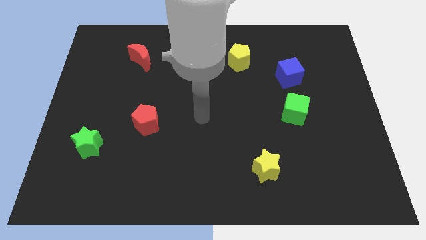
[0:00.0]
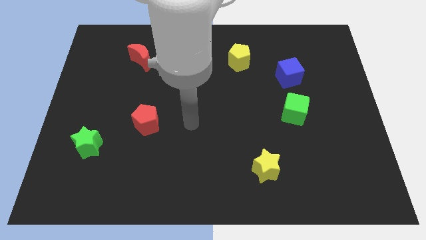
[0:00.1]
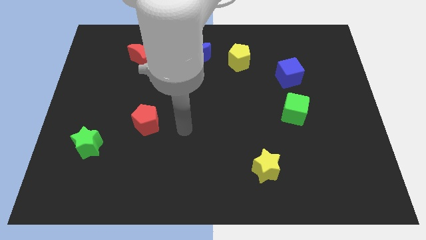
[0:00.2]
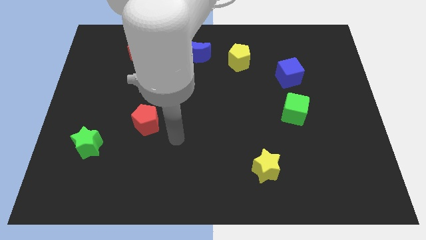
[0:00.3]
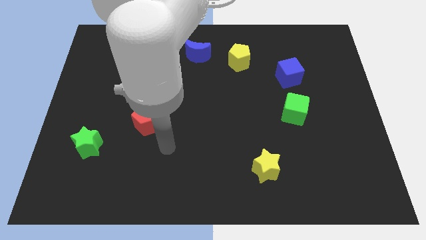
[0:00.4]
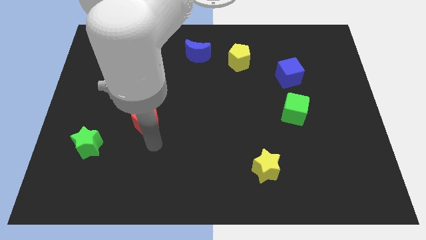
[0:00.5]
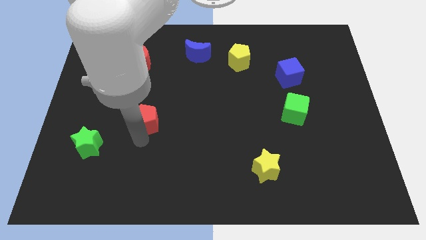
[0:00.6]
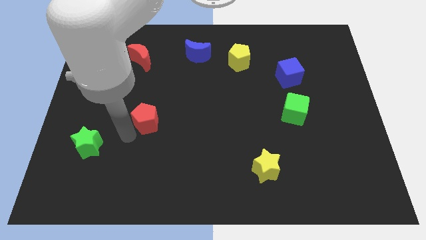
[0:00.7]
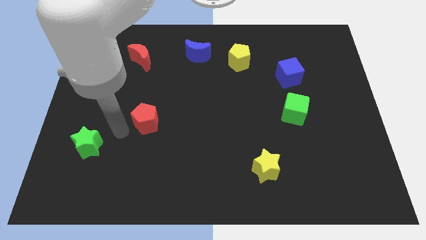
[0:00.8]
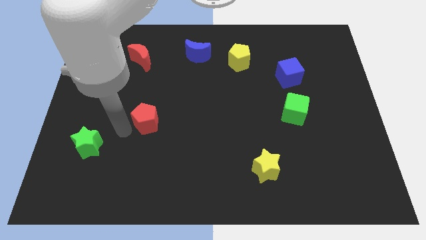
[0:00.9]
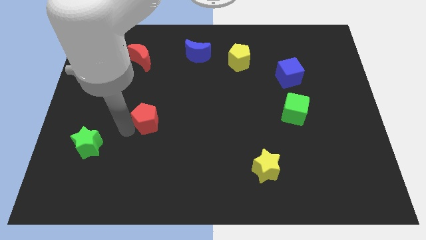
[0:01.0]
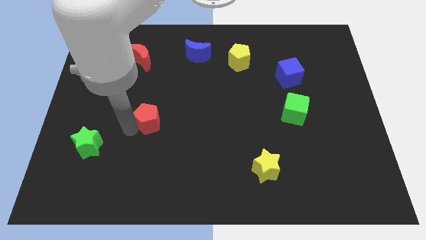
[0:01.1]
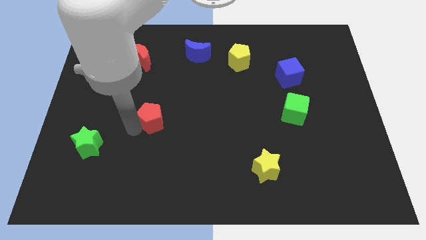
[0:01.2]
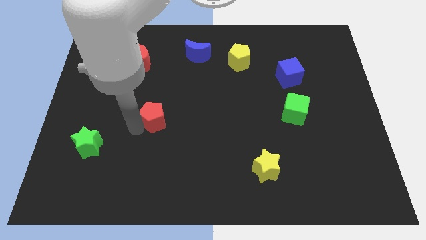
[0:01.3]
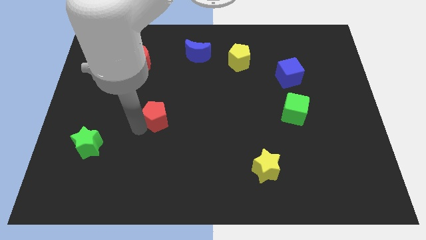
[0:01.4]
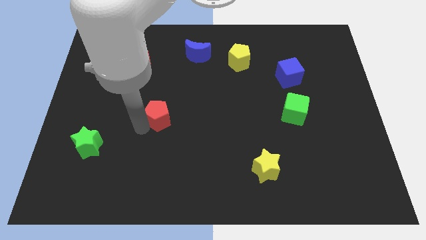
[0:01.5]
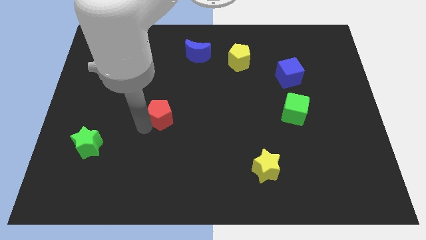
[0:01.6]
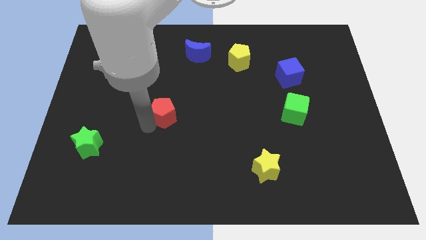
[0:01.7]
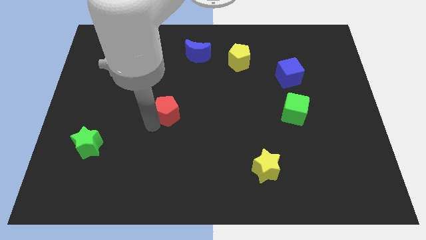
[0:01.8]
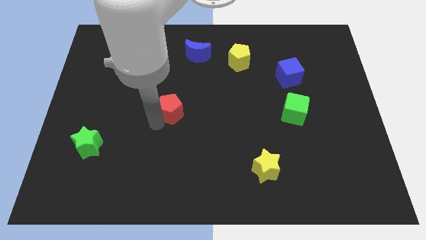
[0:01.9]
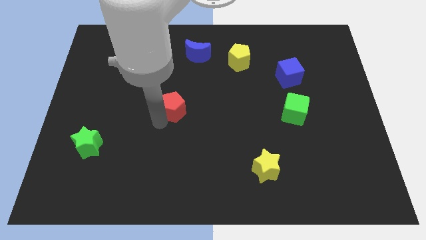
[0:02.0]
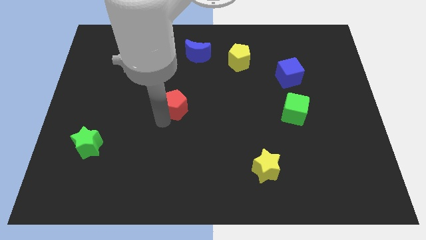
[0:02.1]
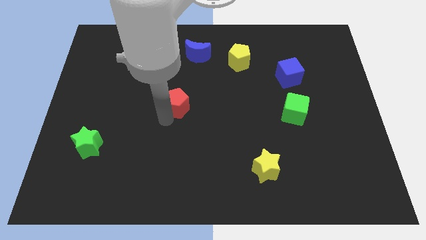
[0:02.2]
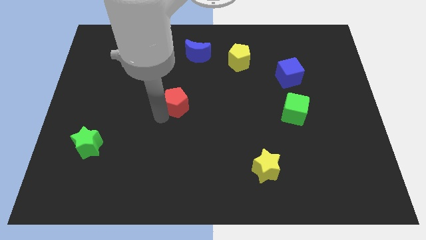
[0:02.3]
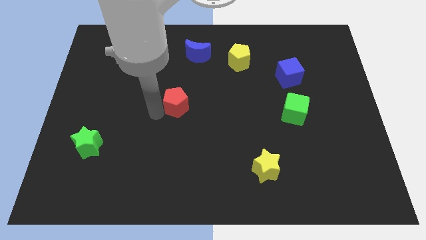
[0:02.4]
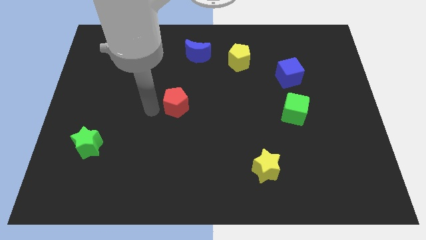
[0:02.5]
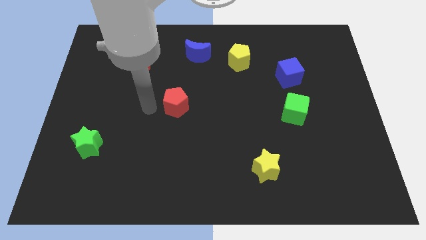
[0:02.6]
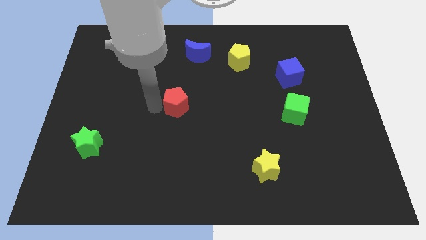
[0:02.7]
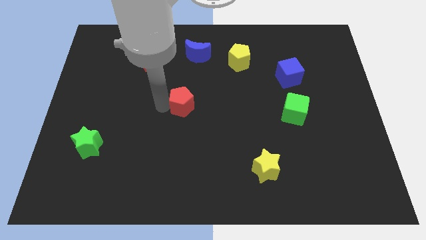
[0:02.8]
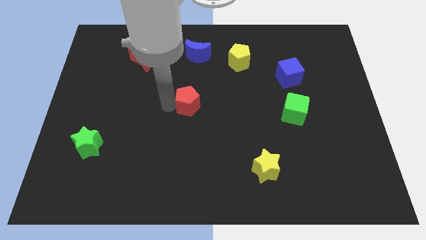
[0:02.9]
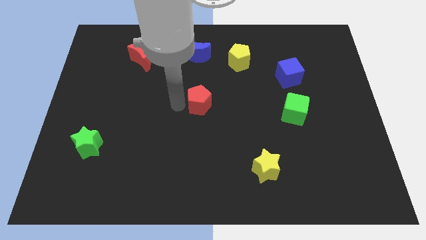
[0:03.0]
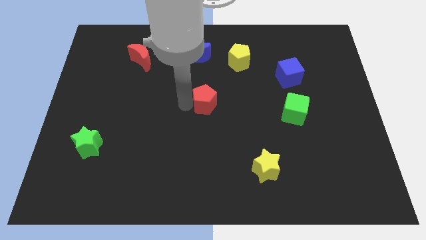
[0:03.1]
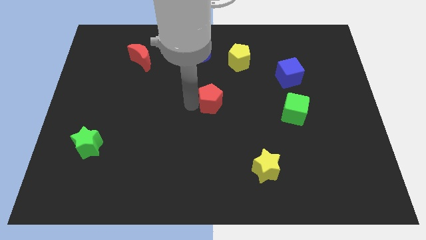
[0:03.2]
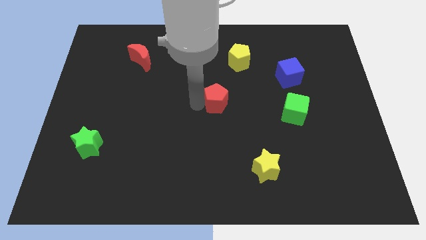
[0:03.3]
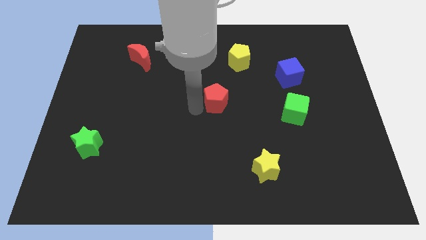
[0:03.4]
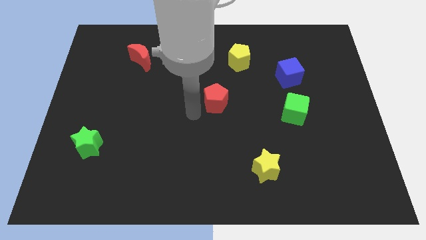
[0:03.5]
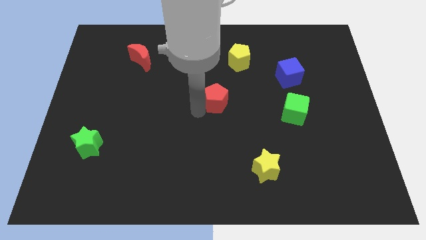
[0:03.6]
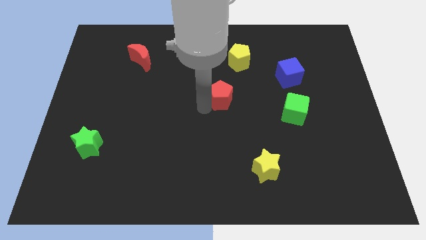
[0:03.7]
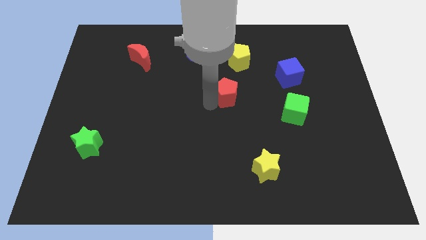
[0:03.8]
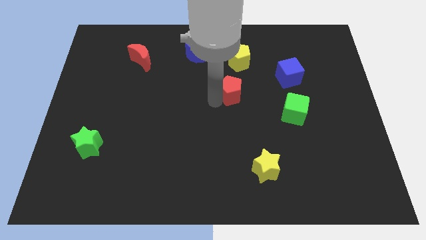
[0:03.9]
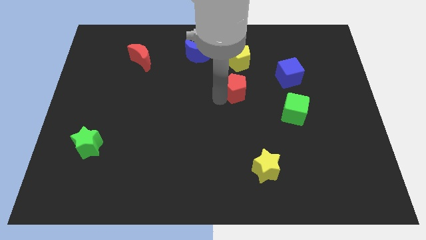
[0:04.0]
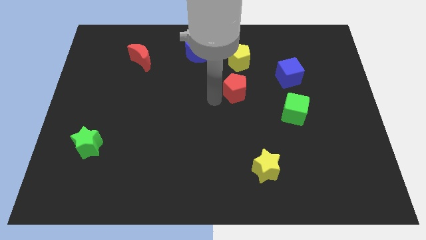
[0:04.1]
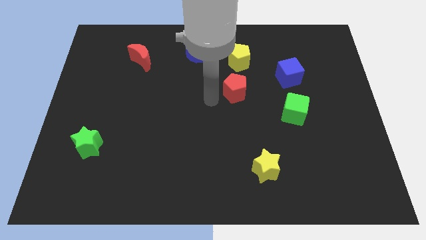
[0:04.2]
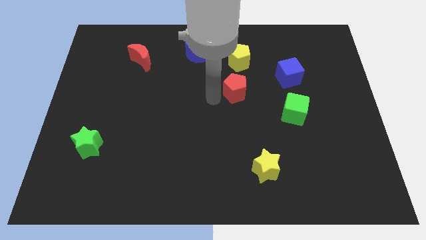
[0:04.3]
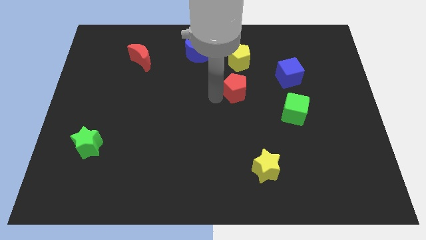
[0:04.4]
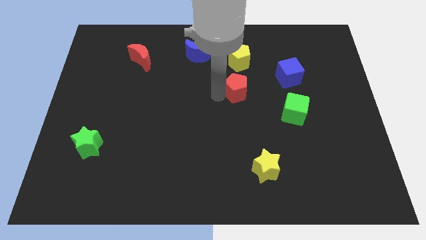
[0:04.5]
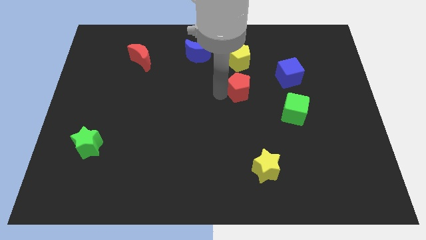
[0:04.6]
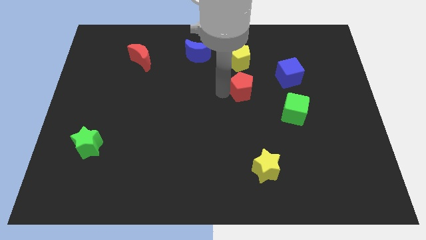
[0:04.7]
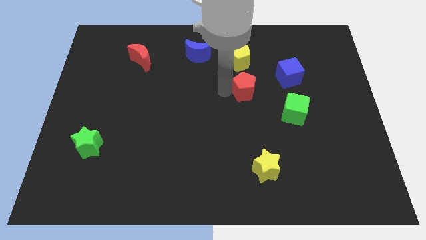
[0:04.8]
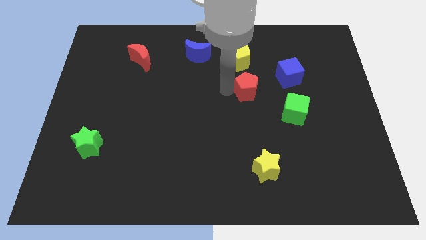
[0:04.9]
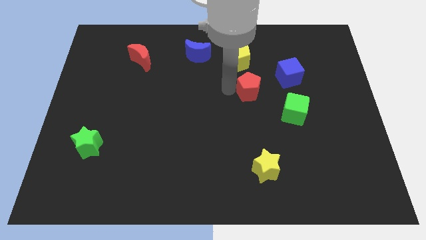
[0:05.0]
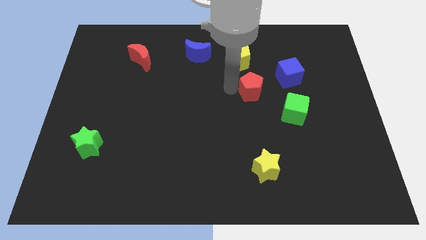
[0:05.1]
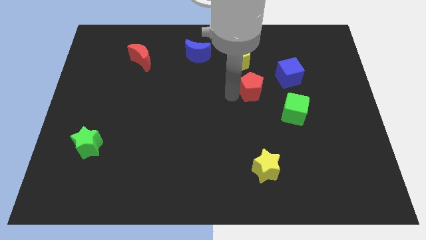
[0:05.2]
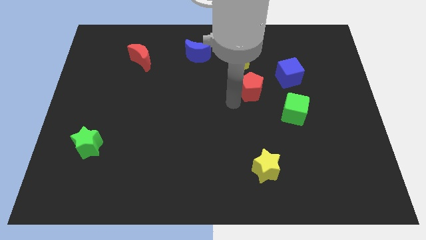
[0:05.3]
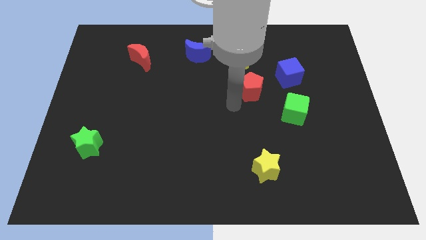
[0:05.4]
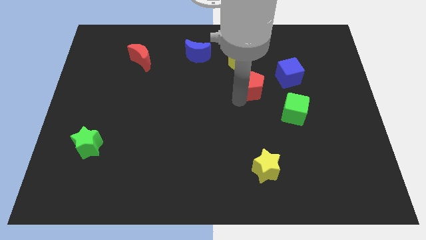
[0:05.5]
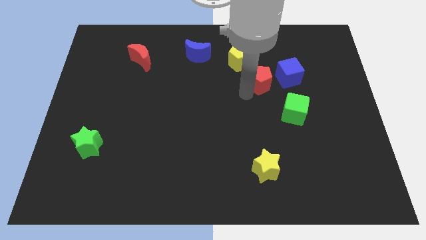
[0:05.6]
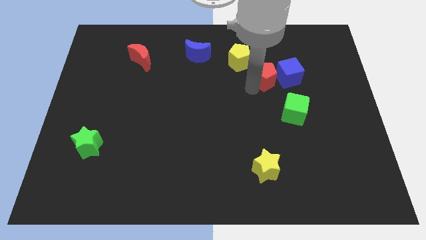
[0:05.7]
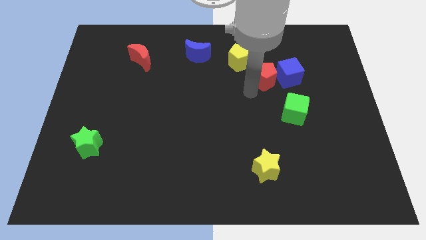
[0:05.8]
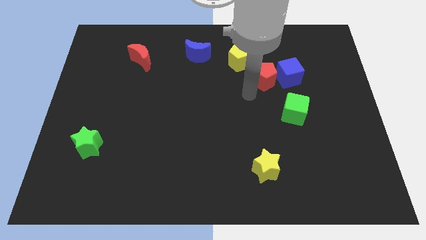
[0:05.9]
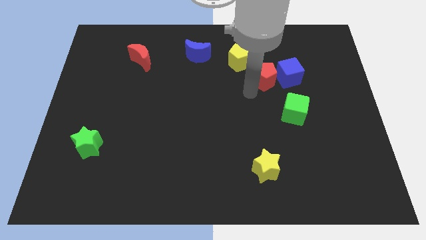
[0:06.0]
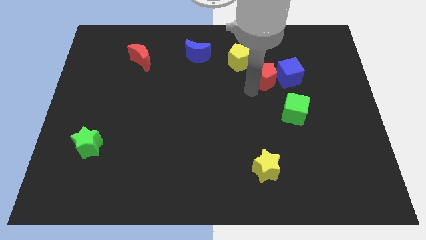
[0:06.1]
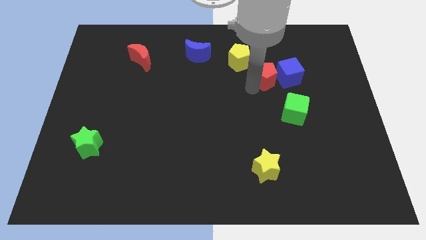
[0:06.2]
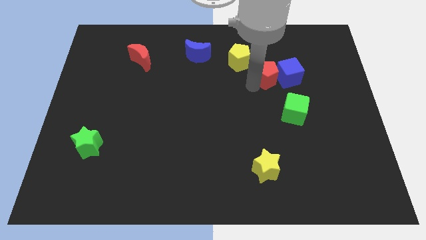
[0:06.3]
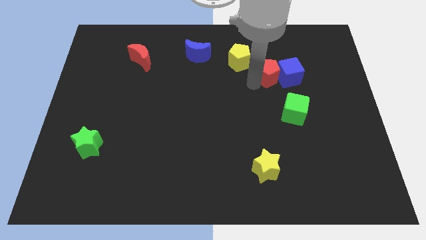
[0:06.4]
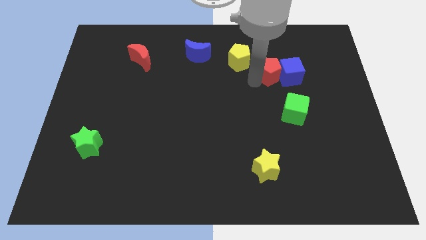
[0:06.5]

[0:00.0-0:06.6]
slide the red pentagon to the top side of the green cube
